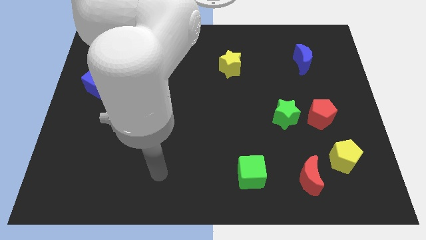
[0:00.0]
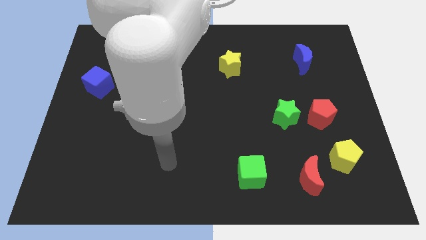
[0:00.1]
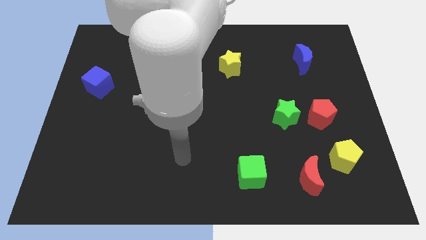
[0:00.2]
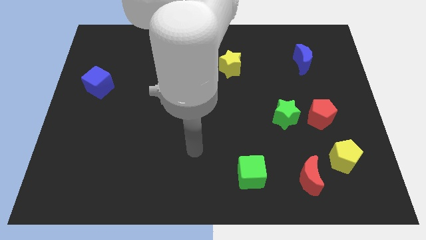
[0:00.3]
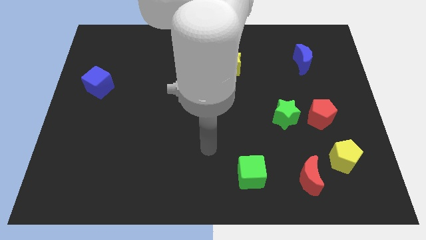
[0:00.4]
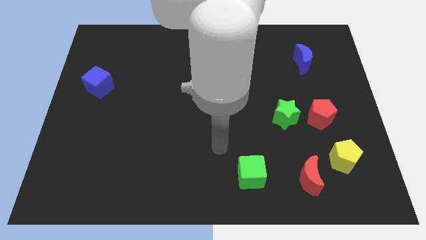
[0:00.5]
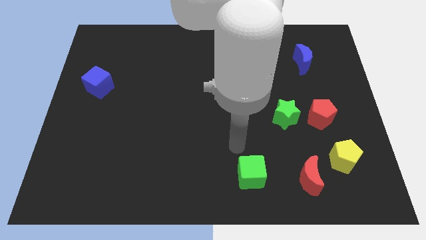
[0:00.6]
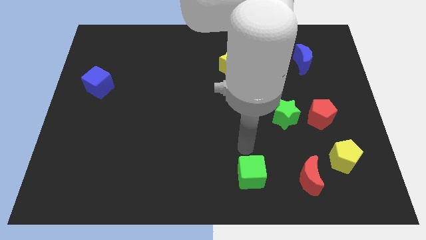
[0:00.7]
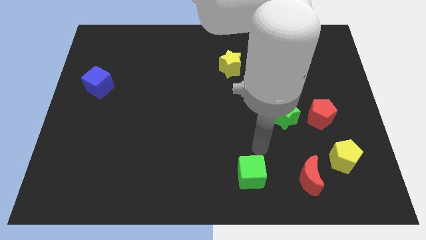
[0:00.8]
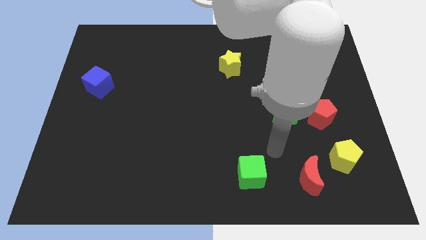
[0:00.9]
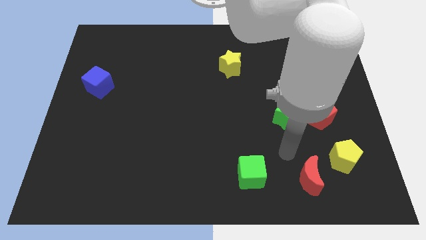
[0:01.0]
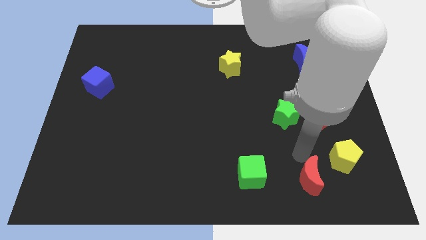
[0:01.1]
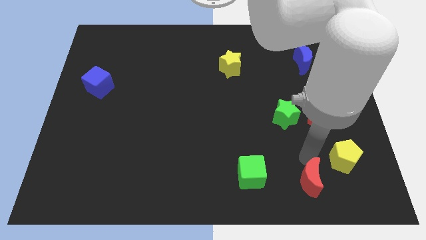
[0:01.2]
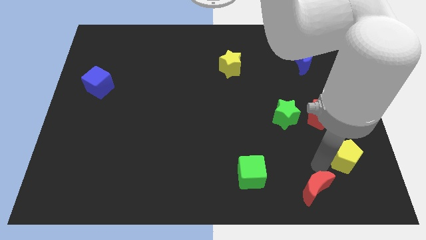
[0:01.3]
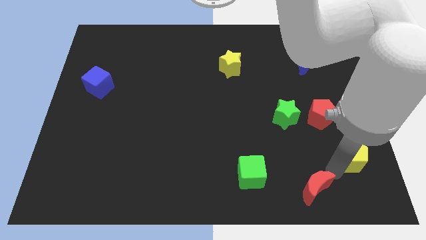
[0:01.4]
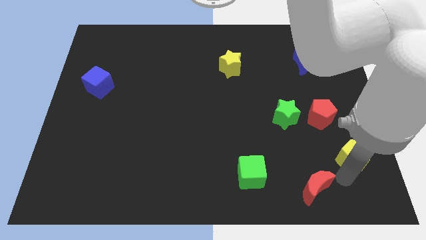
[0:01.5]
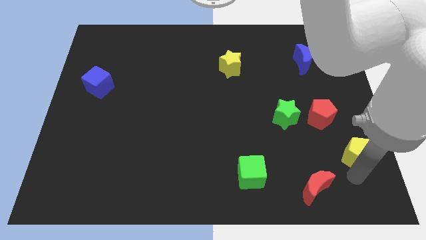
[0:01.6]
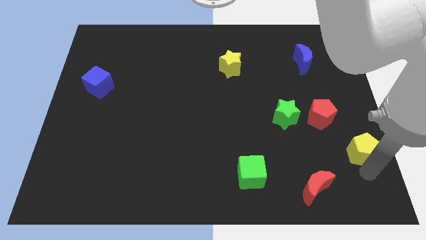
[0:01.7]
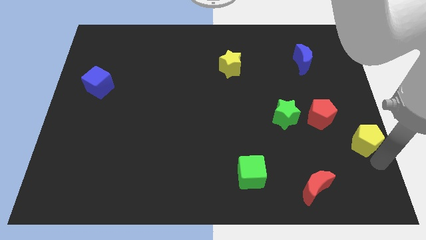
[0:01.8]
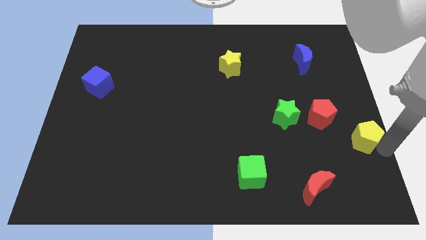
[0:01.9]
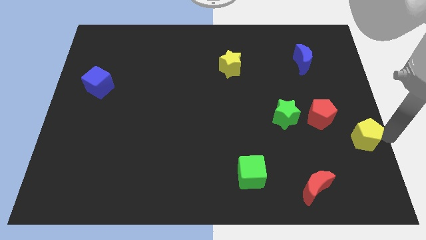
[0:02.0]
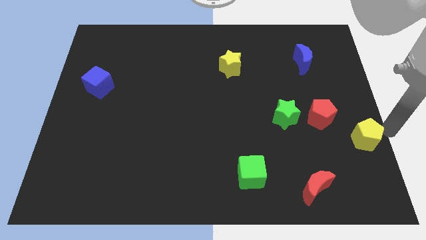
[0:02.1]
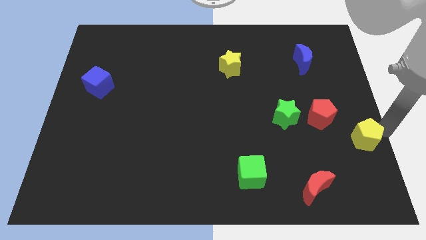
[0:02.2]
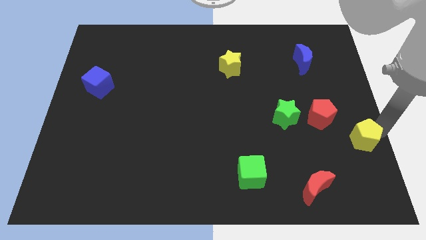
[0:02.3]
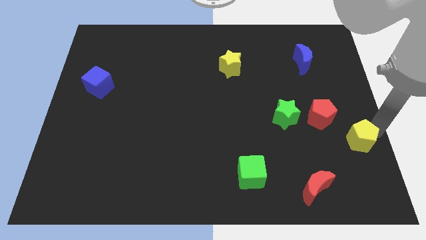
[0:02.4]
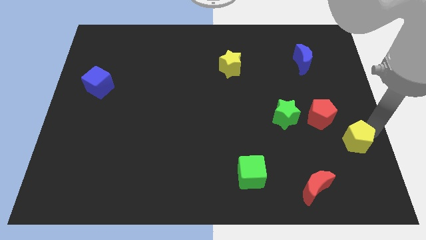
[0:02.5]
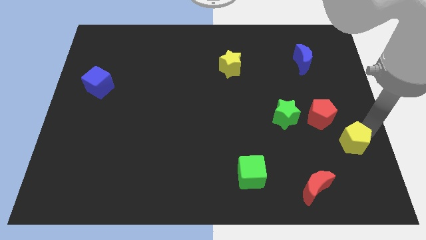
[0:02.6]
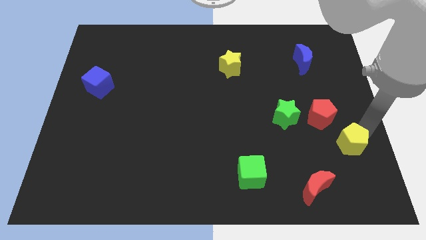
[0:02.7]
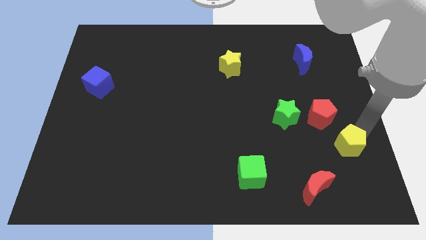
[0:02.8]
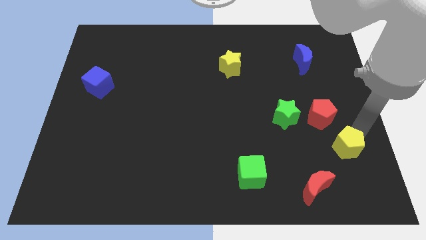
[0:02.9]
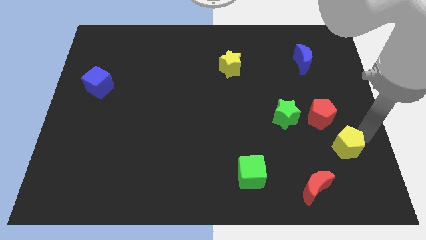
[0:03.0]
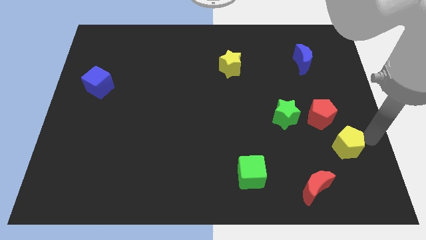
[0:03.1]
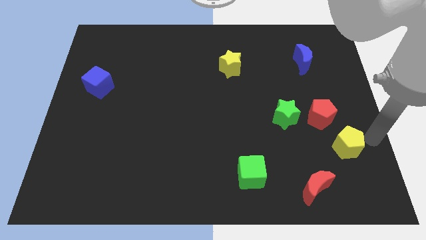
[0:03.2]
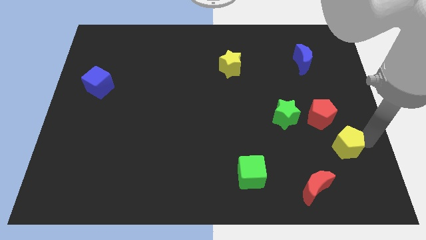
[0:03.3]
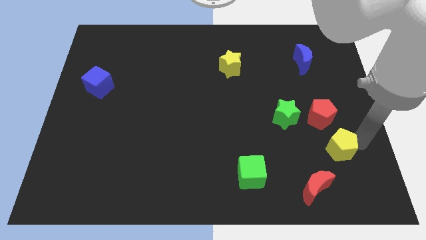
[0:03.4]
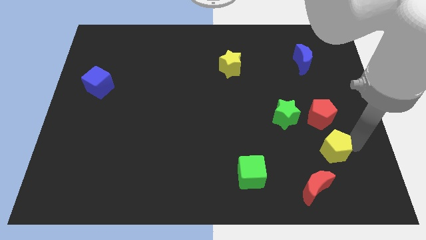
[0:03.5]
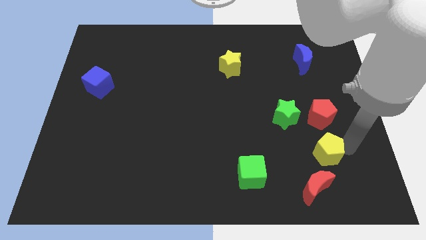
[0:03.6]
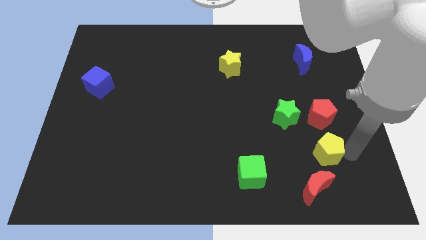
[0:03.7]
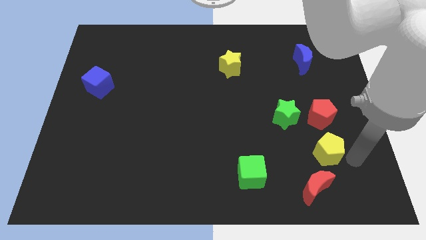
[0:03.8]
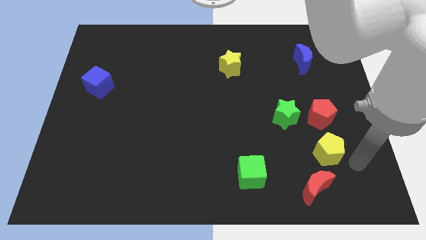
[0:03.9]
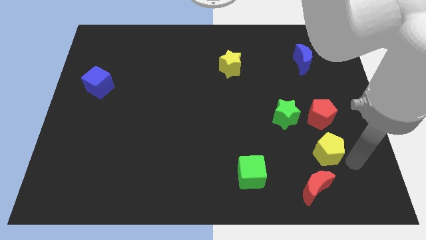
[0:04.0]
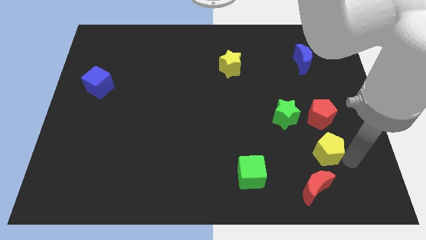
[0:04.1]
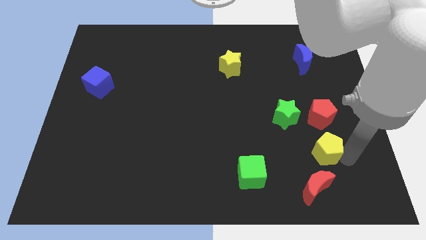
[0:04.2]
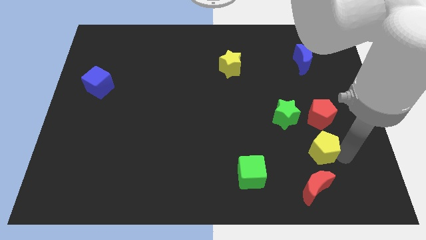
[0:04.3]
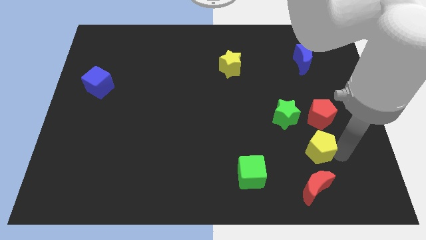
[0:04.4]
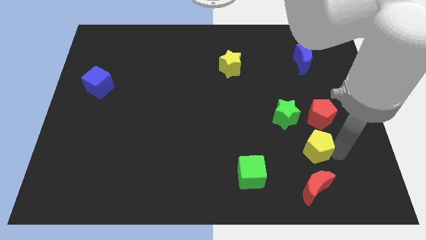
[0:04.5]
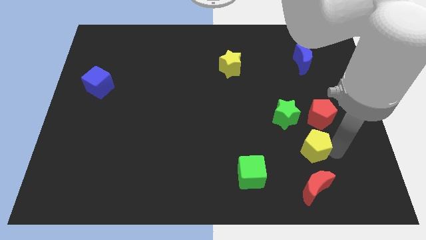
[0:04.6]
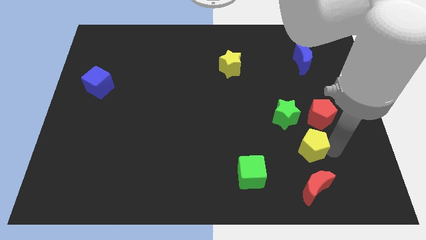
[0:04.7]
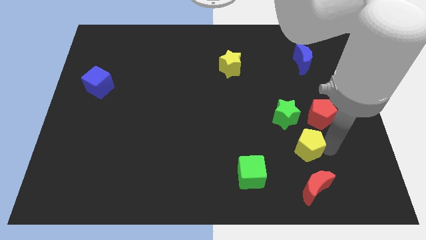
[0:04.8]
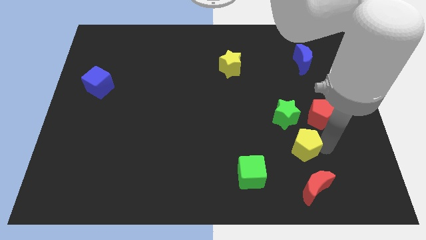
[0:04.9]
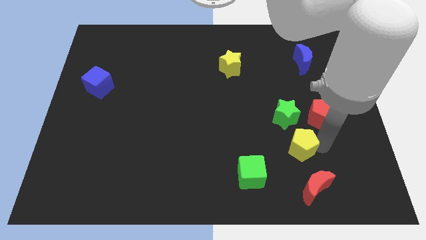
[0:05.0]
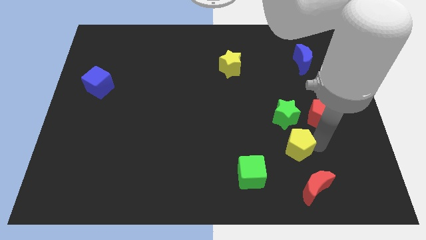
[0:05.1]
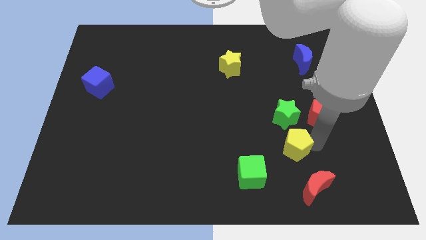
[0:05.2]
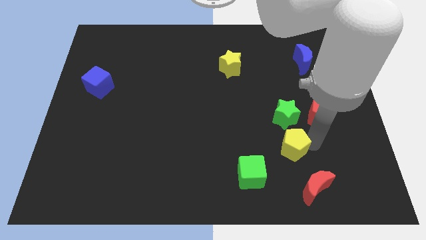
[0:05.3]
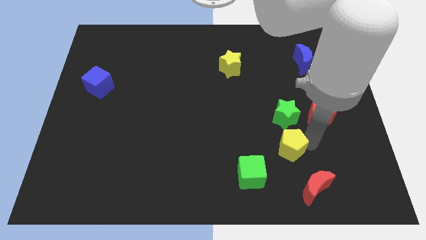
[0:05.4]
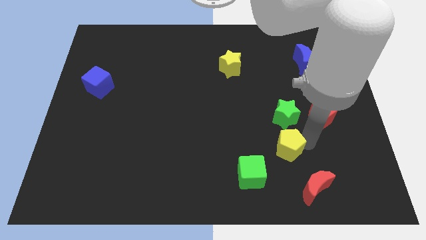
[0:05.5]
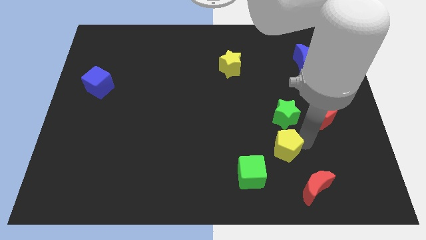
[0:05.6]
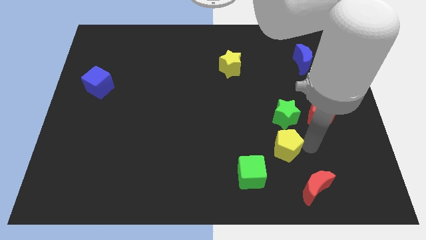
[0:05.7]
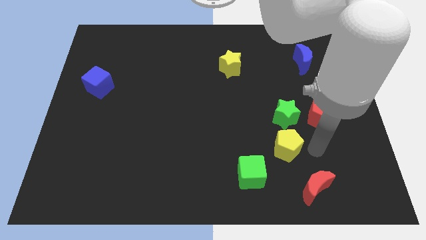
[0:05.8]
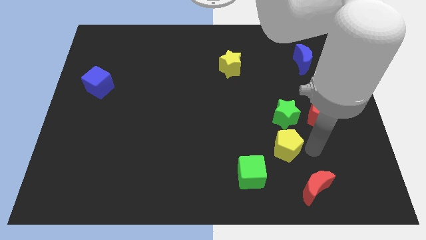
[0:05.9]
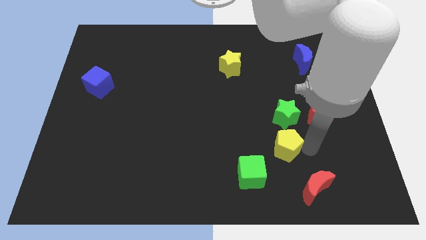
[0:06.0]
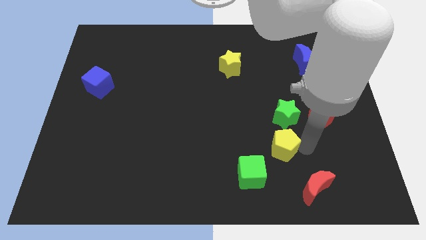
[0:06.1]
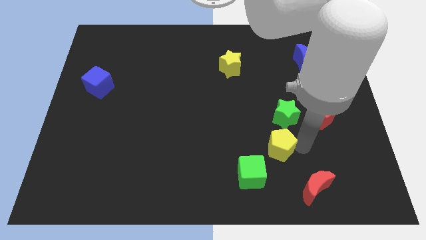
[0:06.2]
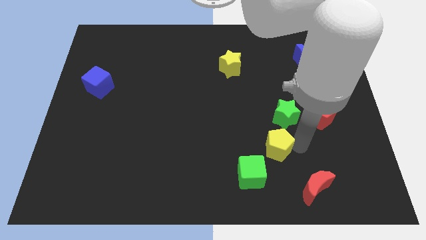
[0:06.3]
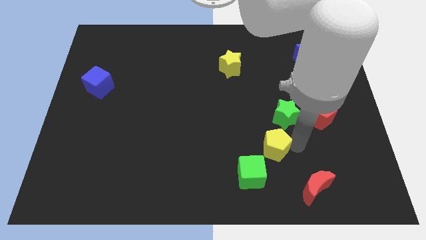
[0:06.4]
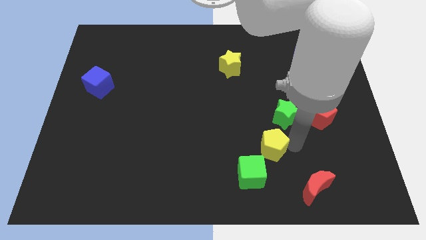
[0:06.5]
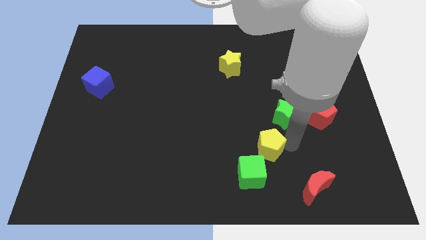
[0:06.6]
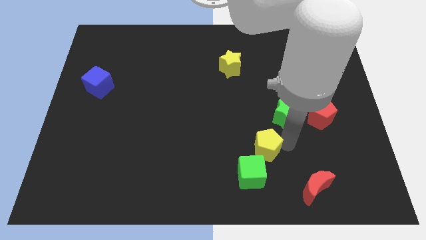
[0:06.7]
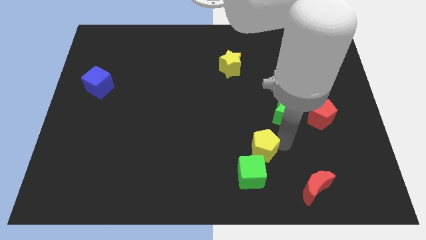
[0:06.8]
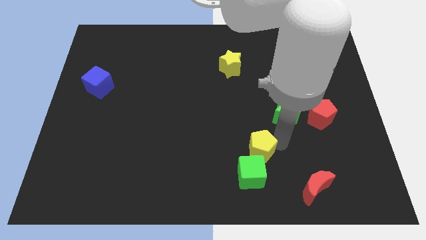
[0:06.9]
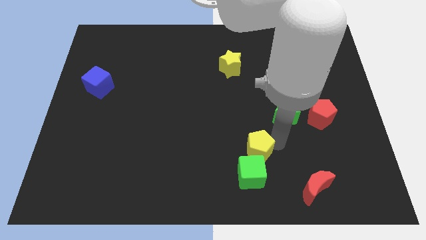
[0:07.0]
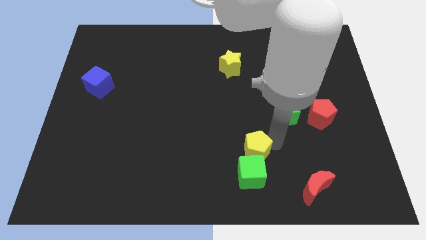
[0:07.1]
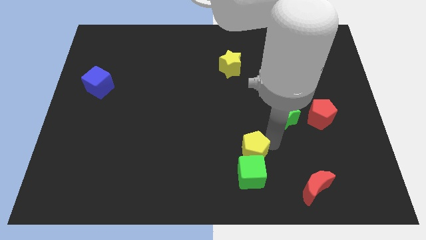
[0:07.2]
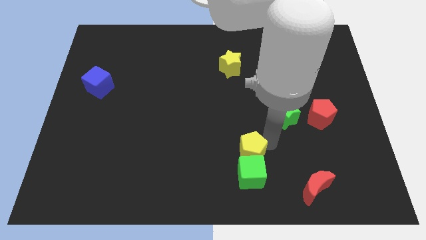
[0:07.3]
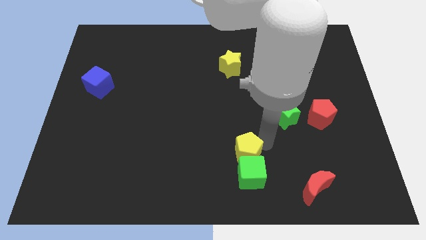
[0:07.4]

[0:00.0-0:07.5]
move the yellow pentagon to the left

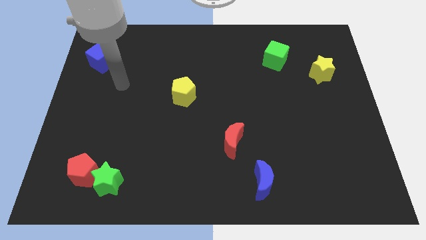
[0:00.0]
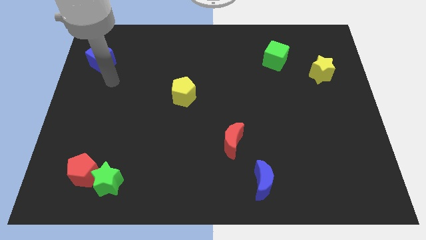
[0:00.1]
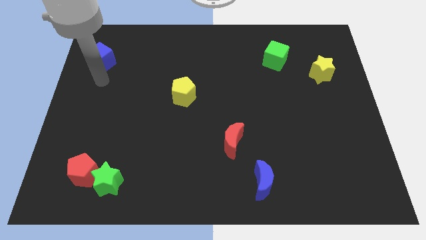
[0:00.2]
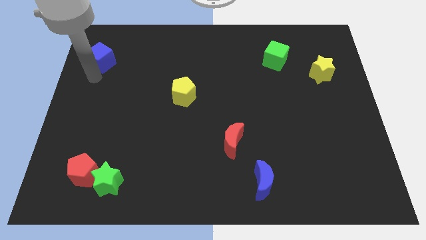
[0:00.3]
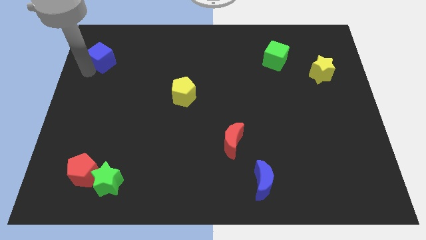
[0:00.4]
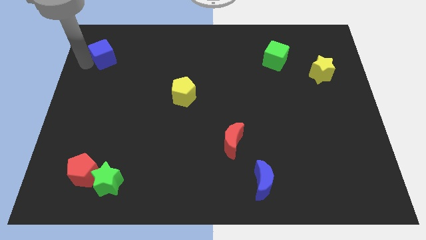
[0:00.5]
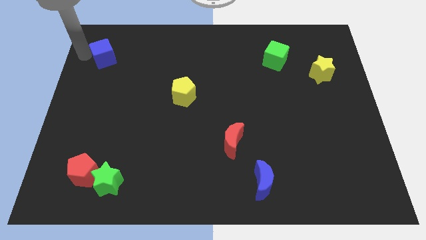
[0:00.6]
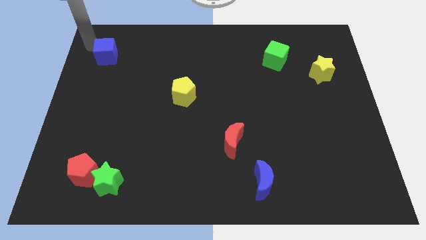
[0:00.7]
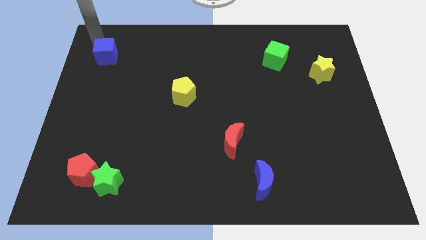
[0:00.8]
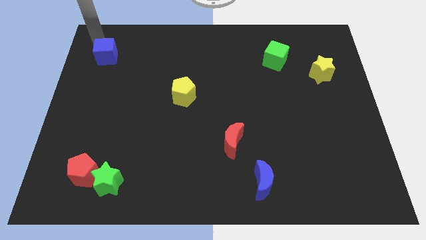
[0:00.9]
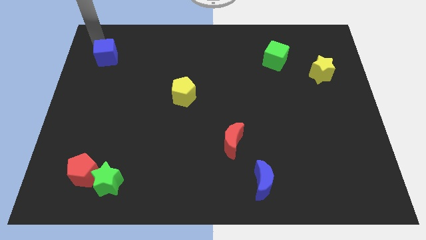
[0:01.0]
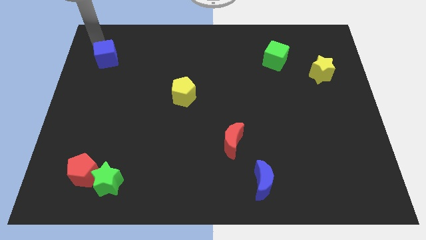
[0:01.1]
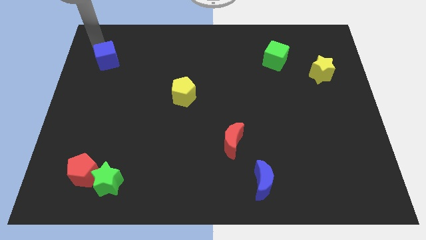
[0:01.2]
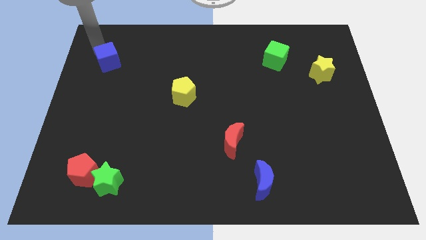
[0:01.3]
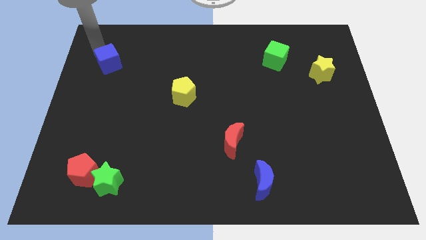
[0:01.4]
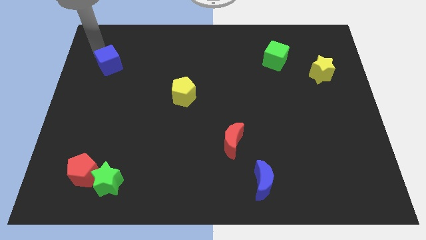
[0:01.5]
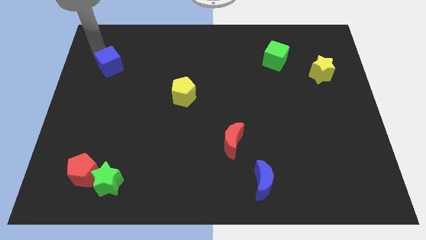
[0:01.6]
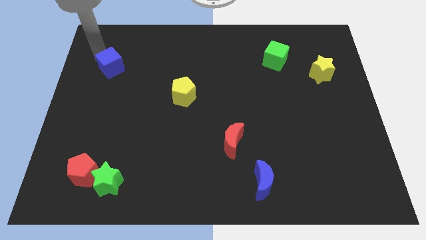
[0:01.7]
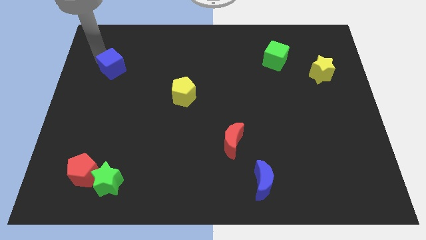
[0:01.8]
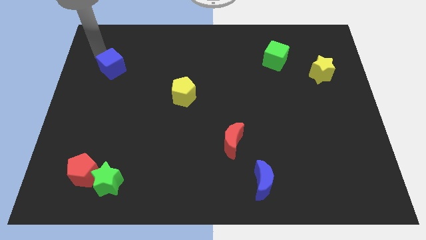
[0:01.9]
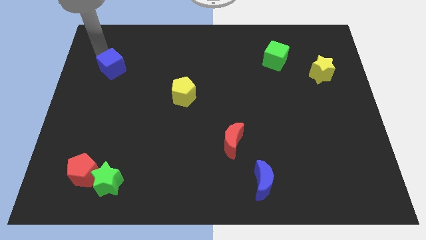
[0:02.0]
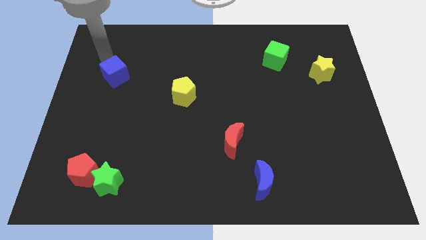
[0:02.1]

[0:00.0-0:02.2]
push the blue cube a little downwards and then to the right
